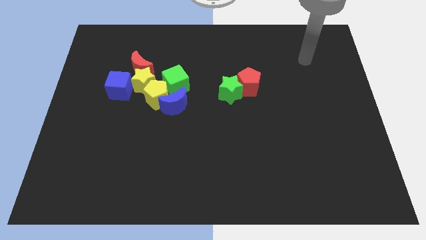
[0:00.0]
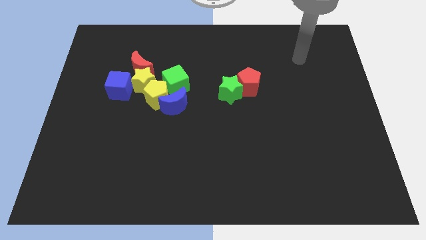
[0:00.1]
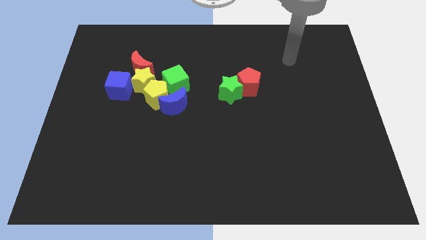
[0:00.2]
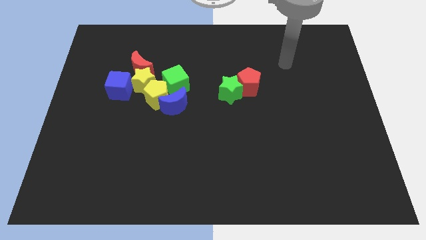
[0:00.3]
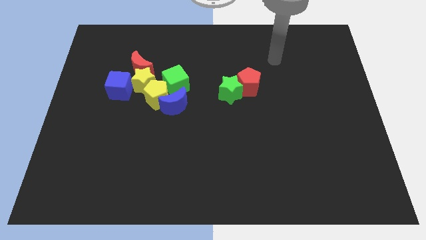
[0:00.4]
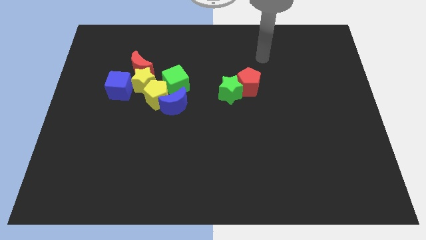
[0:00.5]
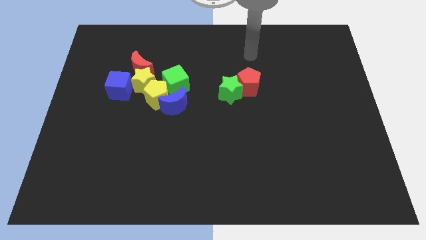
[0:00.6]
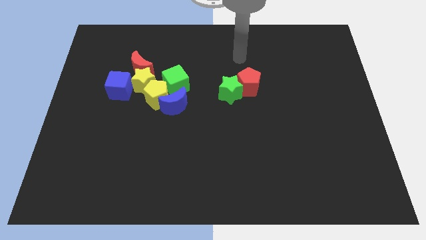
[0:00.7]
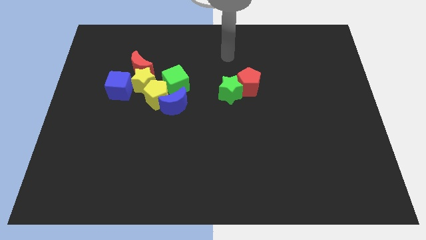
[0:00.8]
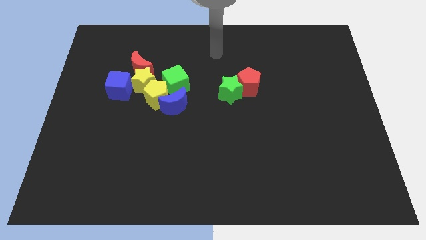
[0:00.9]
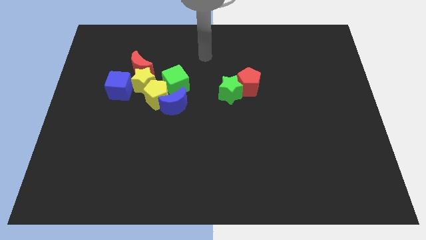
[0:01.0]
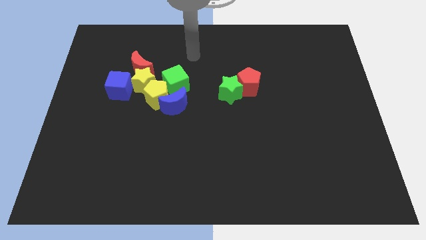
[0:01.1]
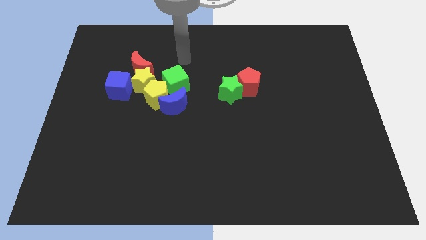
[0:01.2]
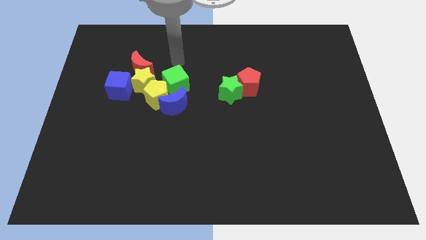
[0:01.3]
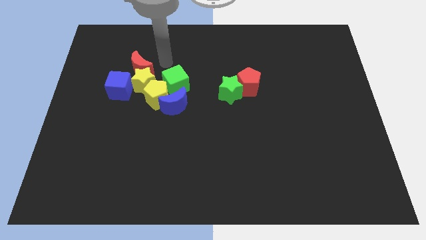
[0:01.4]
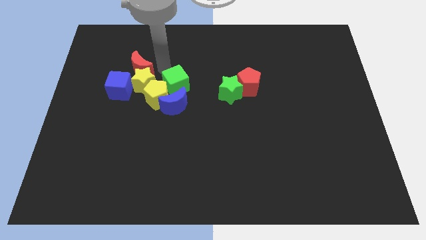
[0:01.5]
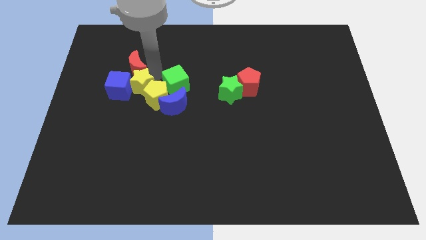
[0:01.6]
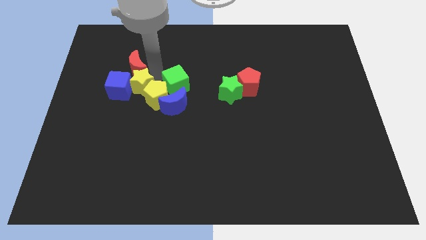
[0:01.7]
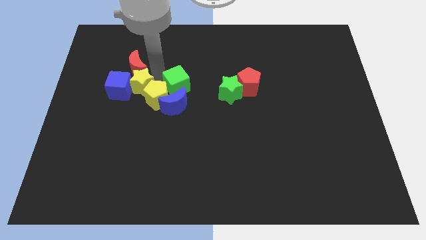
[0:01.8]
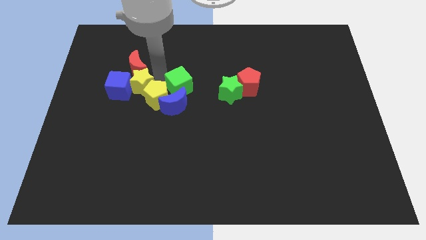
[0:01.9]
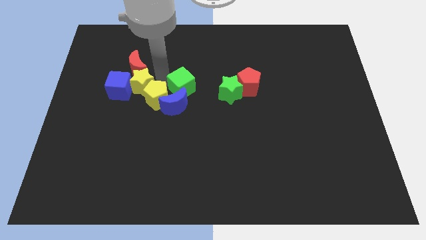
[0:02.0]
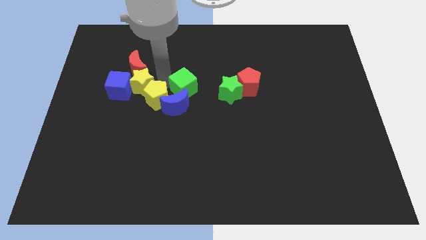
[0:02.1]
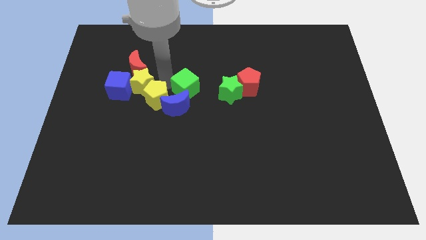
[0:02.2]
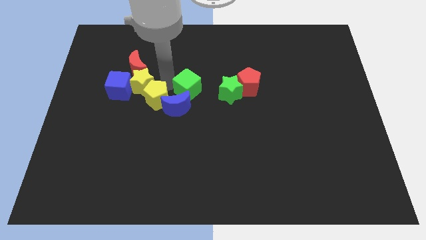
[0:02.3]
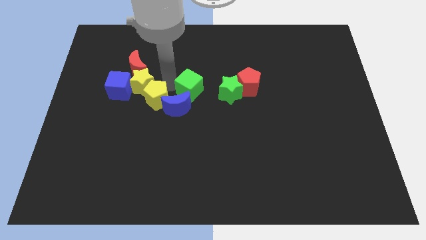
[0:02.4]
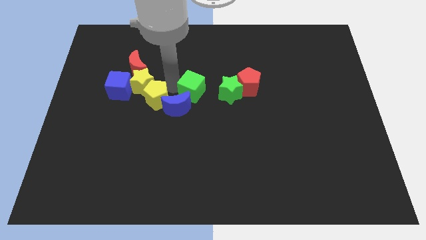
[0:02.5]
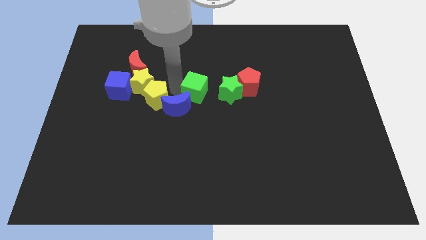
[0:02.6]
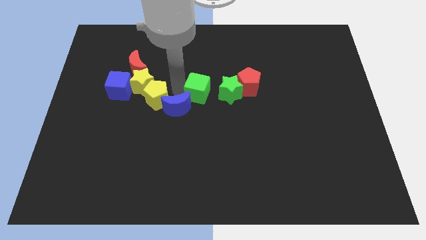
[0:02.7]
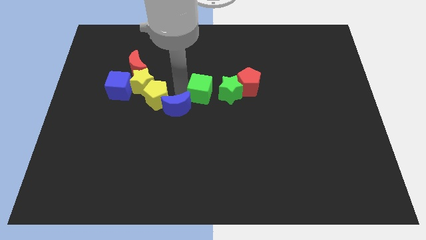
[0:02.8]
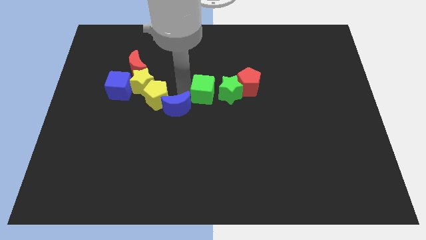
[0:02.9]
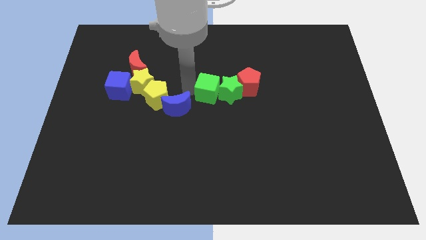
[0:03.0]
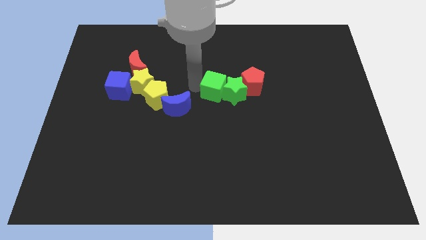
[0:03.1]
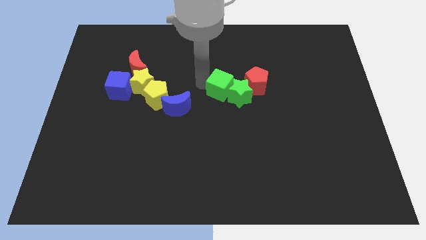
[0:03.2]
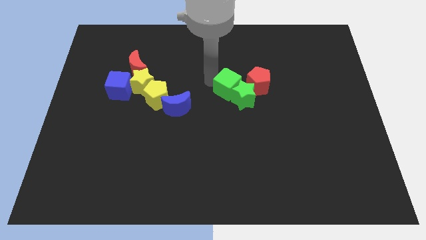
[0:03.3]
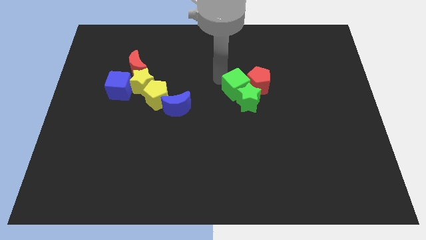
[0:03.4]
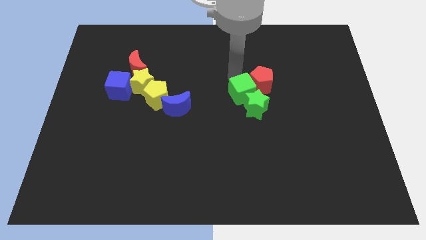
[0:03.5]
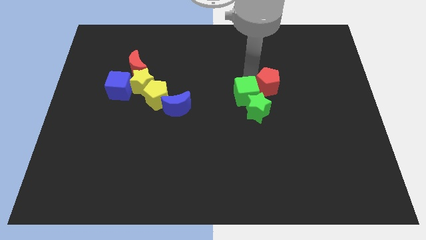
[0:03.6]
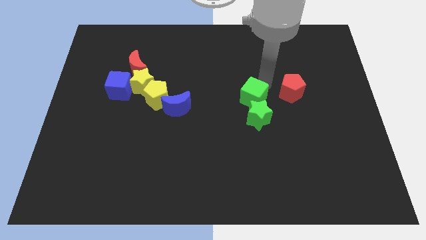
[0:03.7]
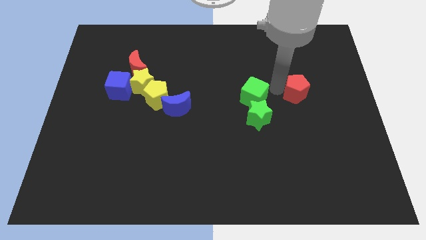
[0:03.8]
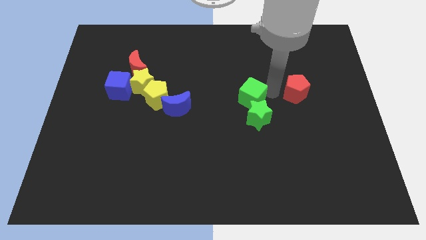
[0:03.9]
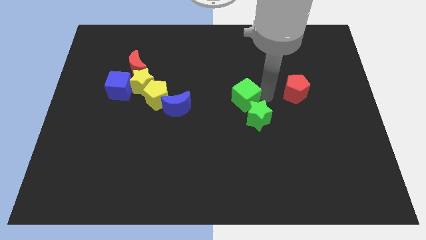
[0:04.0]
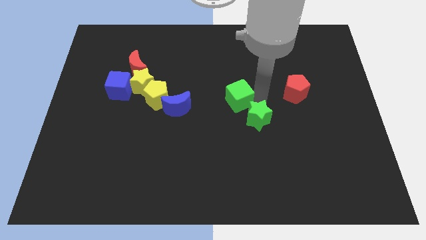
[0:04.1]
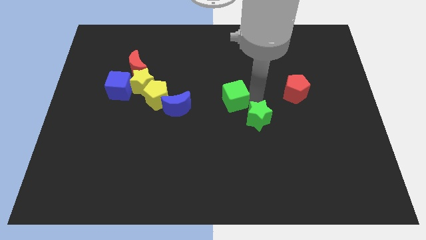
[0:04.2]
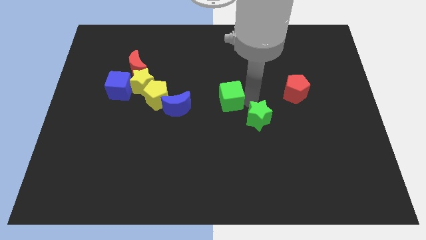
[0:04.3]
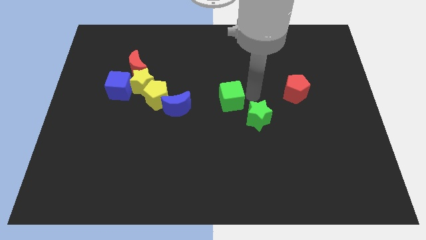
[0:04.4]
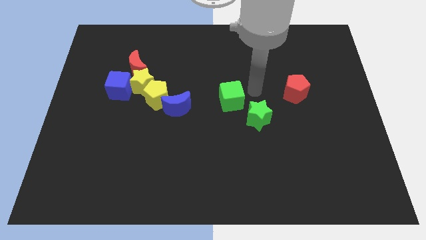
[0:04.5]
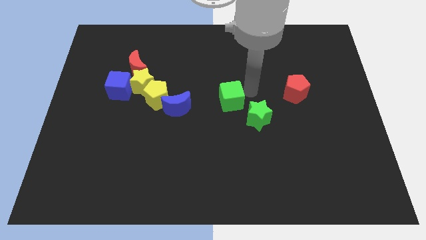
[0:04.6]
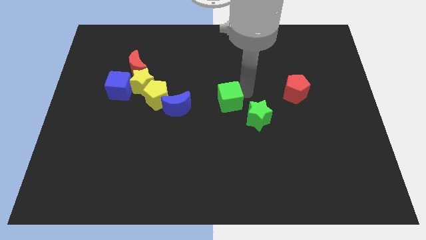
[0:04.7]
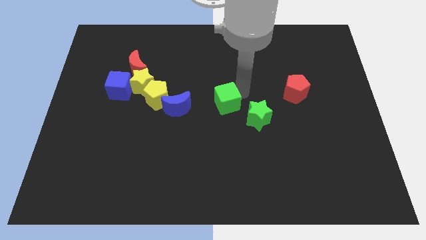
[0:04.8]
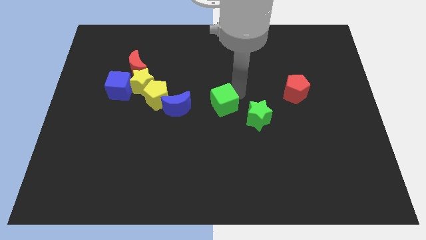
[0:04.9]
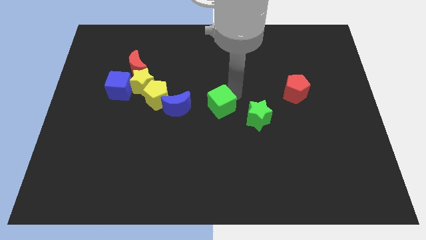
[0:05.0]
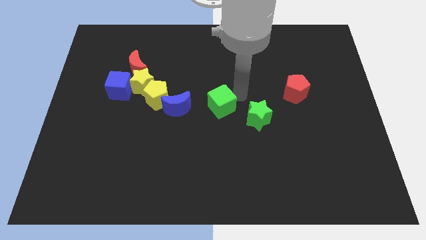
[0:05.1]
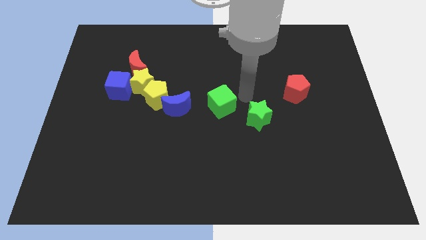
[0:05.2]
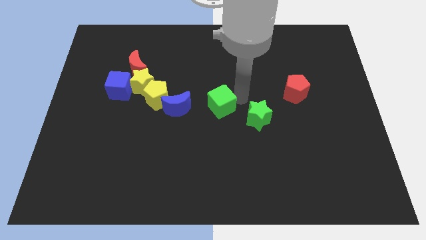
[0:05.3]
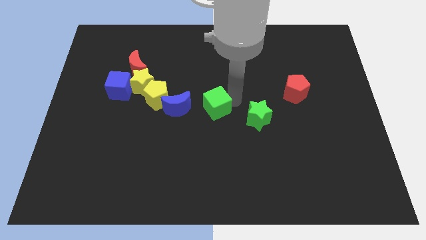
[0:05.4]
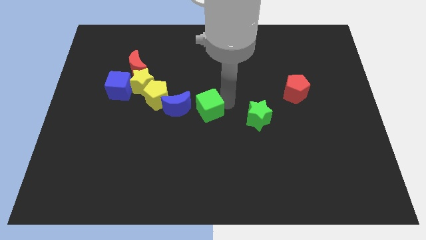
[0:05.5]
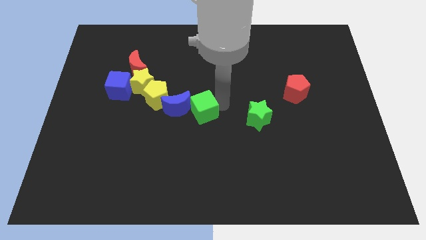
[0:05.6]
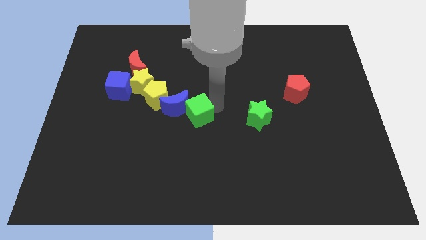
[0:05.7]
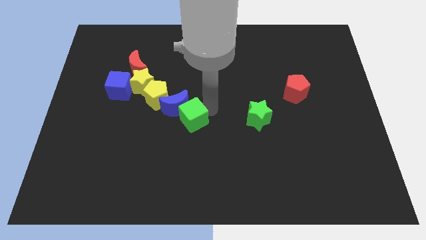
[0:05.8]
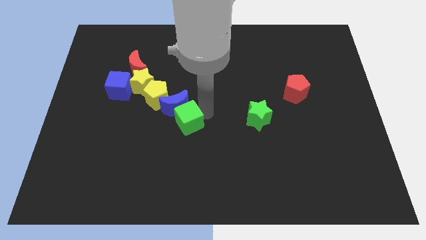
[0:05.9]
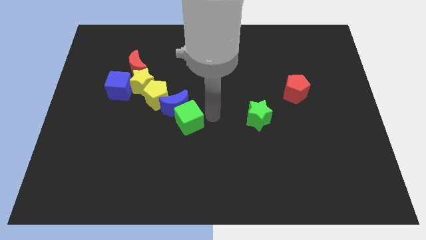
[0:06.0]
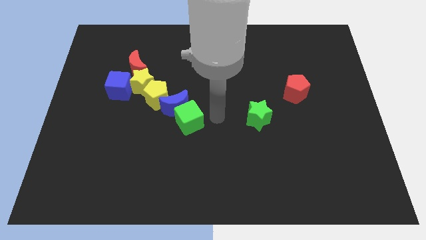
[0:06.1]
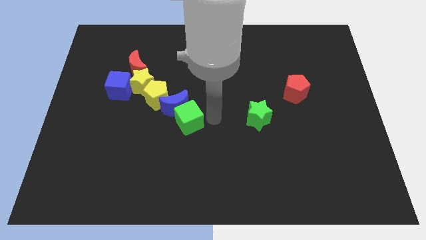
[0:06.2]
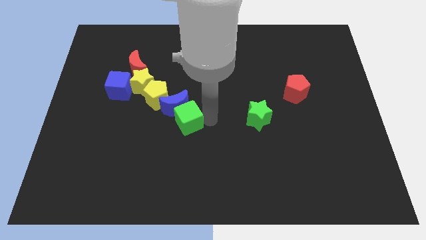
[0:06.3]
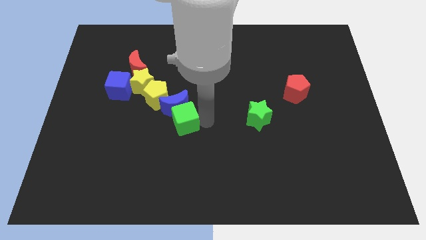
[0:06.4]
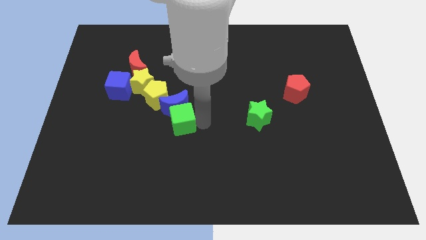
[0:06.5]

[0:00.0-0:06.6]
put the green cube to the bottom left of the blue moon

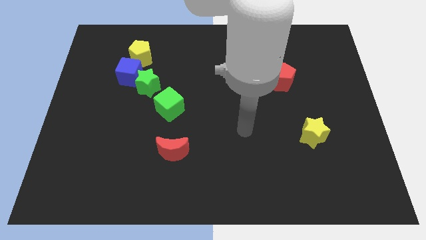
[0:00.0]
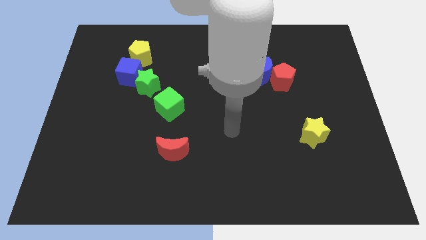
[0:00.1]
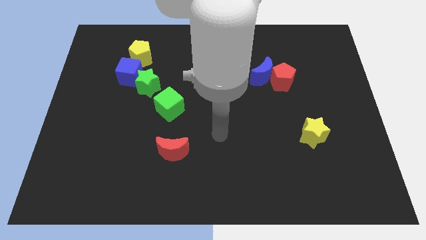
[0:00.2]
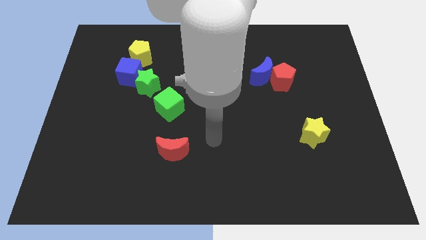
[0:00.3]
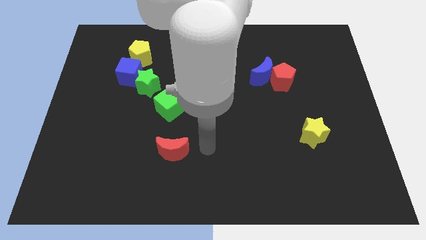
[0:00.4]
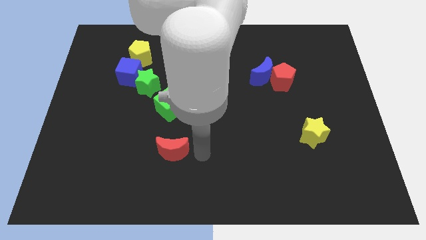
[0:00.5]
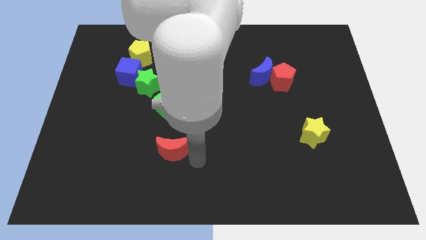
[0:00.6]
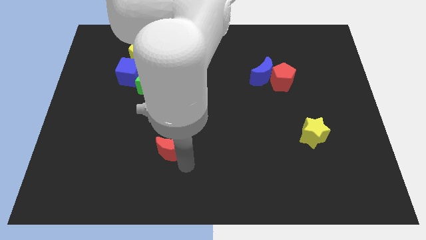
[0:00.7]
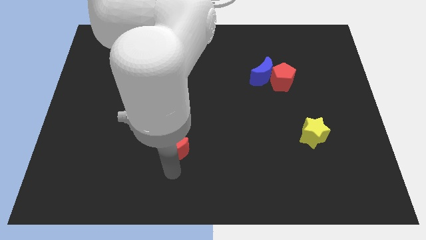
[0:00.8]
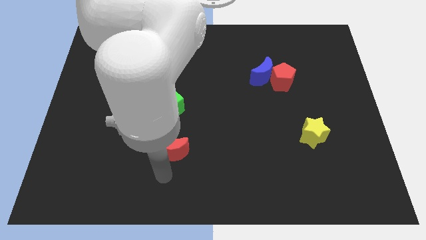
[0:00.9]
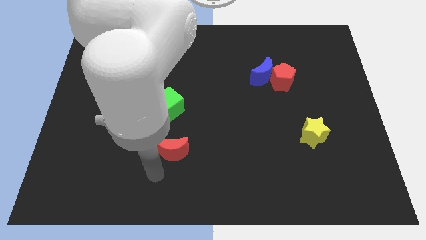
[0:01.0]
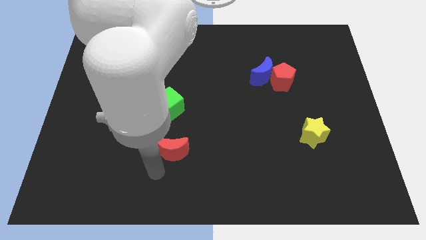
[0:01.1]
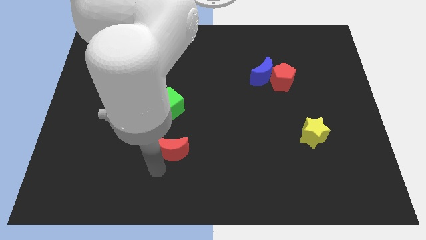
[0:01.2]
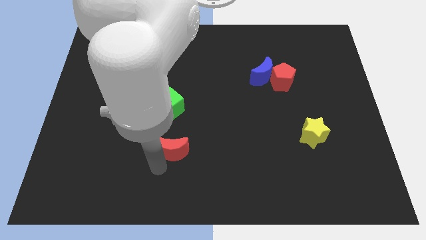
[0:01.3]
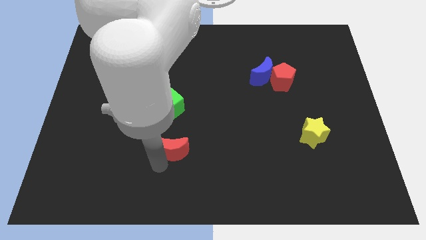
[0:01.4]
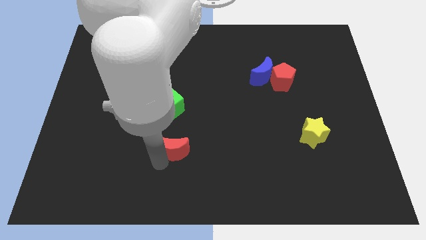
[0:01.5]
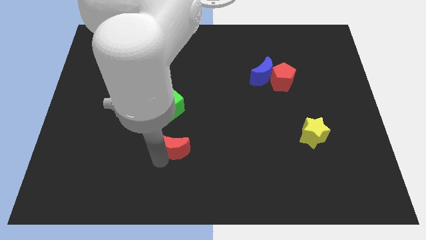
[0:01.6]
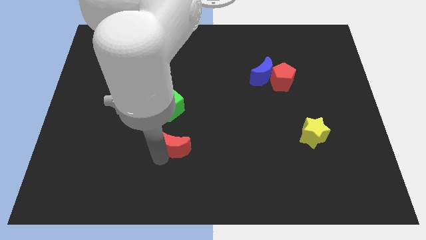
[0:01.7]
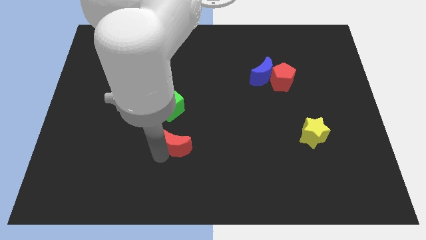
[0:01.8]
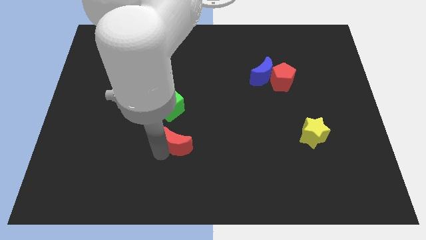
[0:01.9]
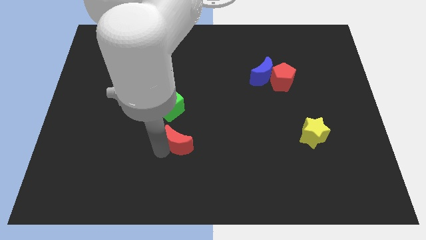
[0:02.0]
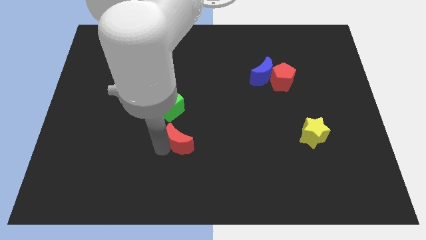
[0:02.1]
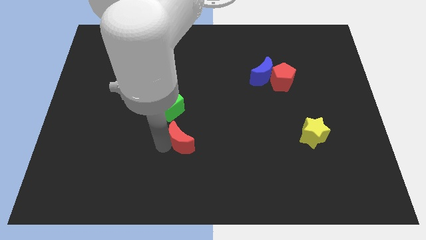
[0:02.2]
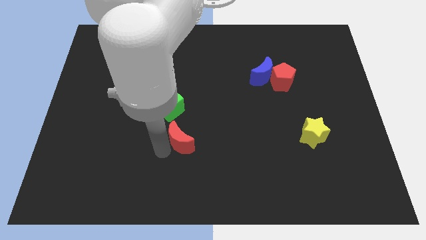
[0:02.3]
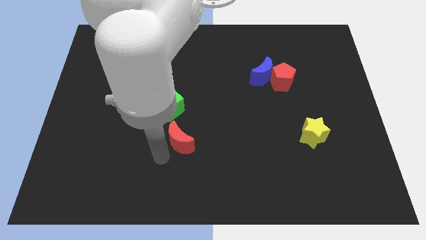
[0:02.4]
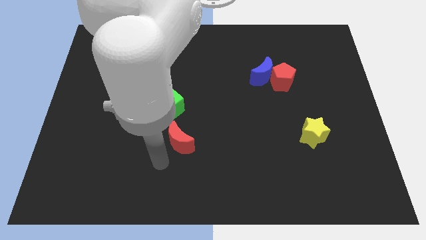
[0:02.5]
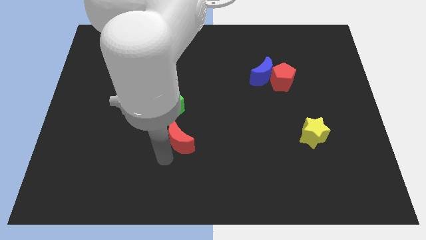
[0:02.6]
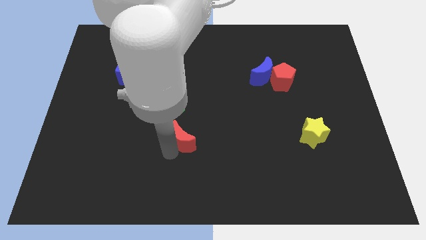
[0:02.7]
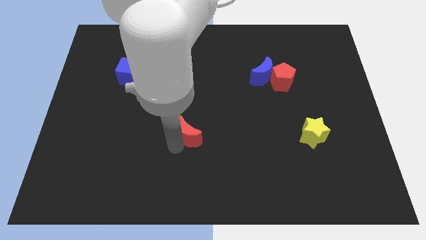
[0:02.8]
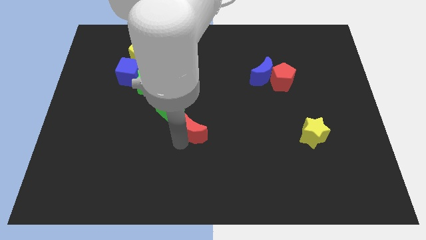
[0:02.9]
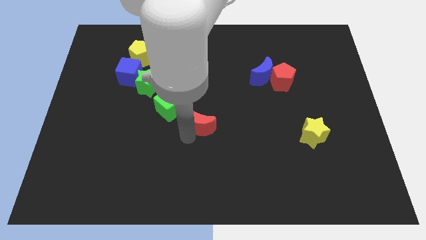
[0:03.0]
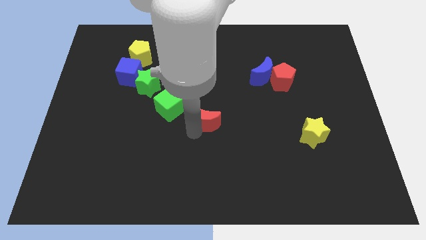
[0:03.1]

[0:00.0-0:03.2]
push the red moon just right of the green cube
